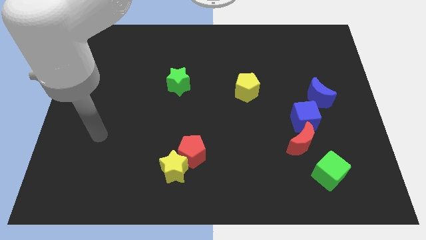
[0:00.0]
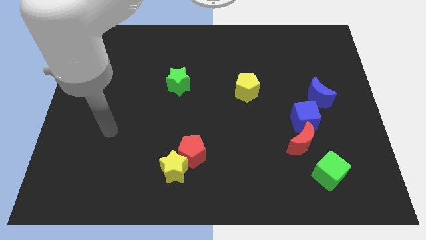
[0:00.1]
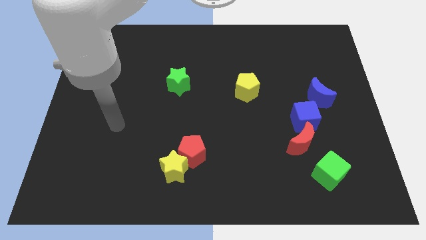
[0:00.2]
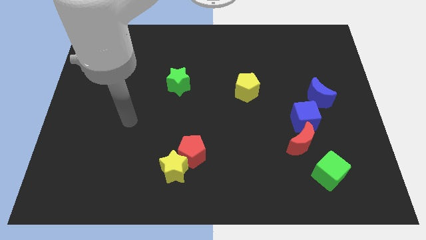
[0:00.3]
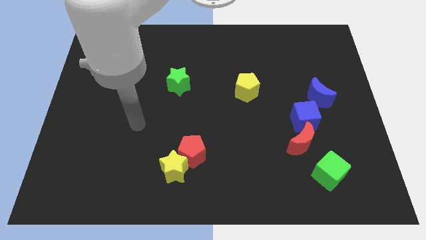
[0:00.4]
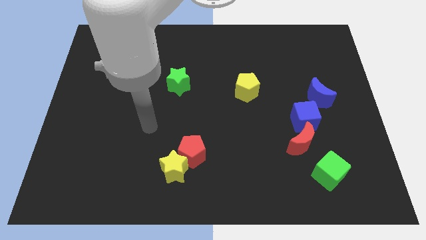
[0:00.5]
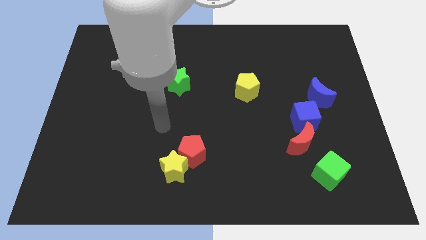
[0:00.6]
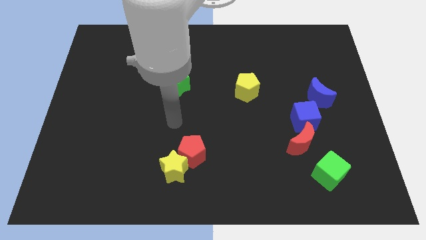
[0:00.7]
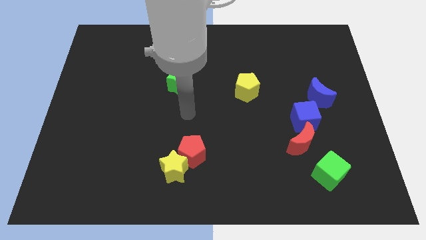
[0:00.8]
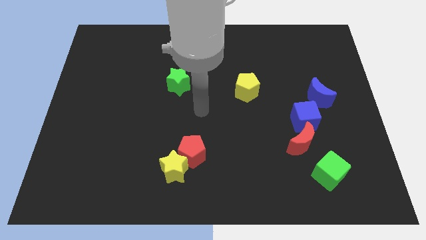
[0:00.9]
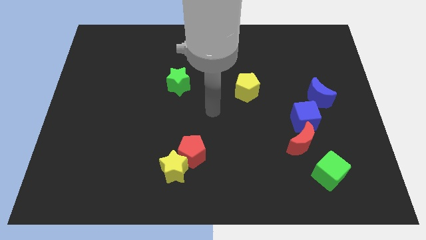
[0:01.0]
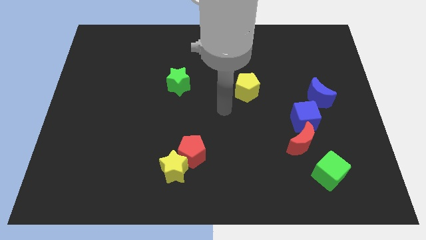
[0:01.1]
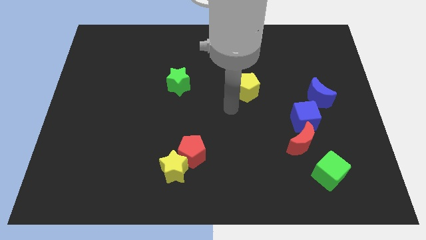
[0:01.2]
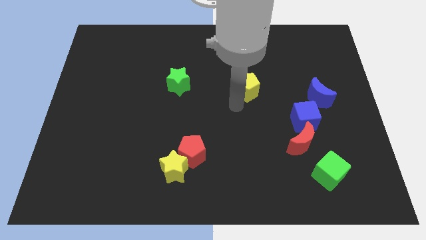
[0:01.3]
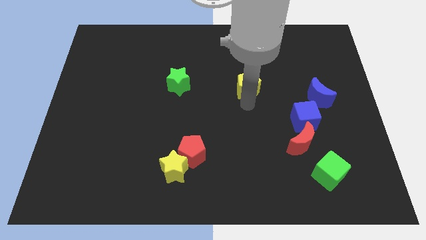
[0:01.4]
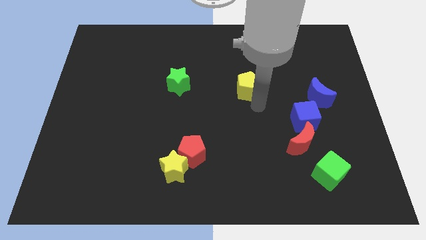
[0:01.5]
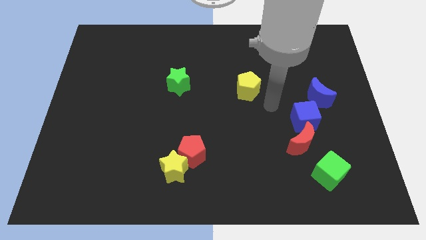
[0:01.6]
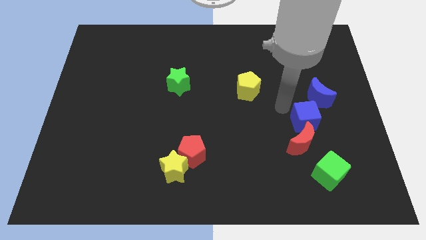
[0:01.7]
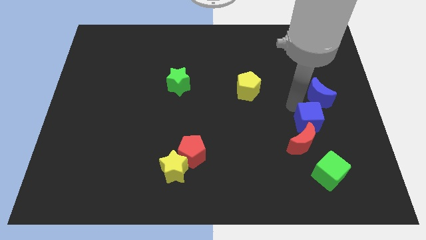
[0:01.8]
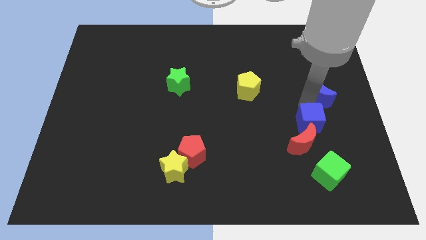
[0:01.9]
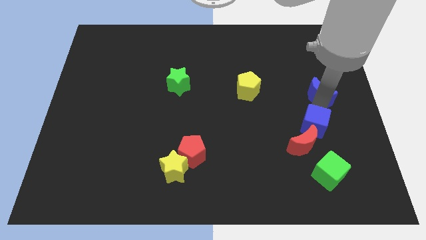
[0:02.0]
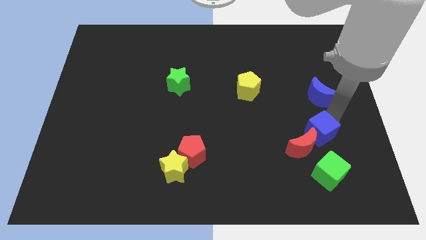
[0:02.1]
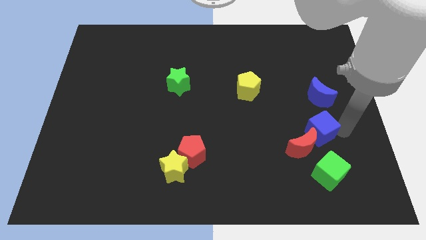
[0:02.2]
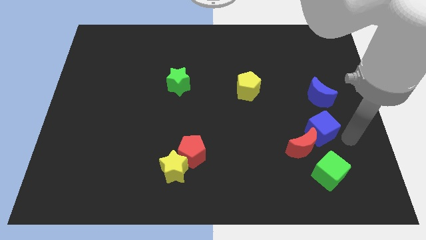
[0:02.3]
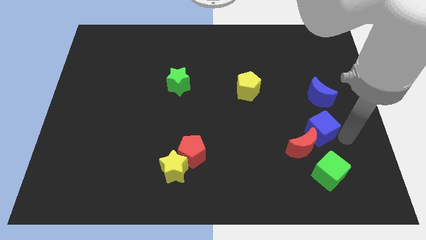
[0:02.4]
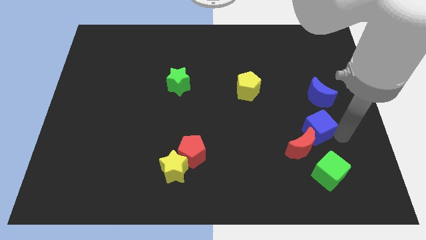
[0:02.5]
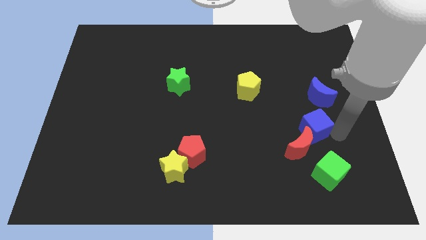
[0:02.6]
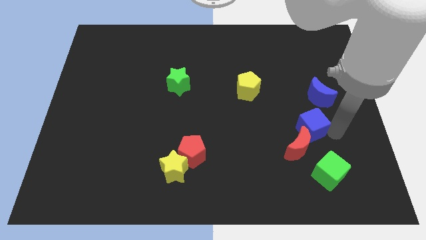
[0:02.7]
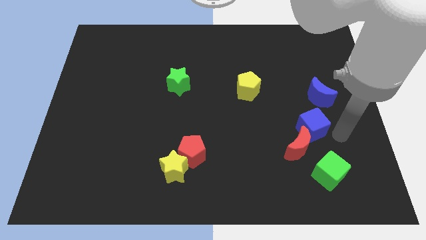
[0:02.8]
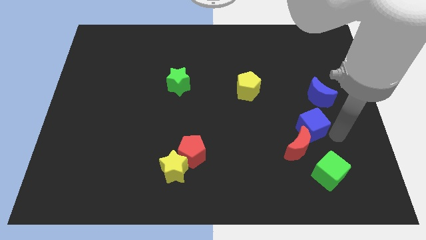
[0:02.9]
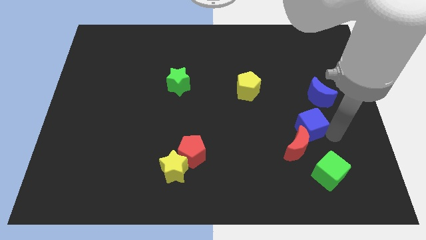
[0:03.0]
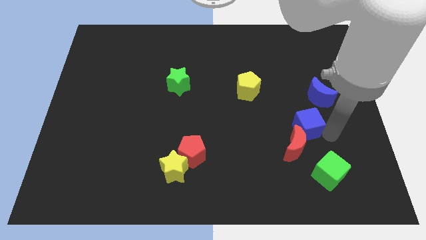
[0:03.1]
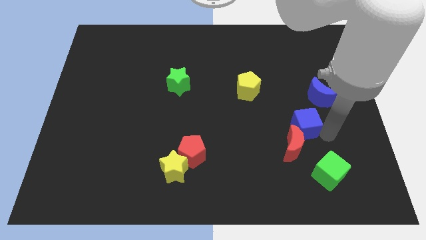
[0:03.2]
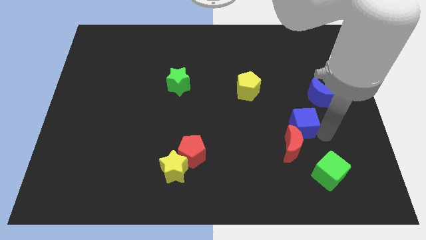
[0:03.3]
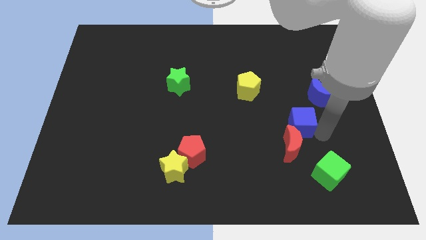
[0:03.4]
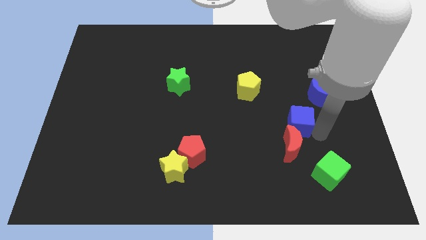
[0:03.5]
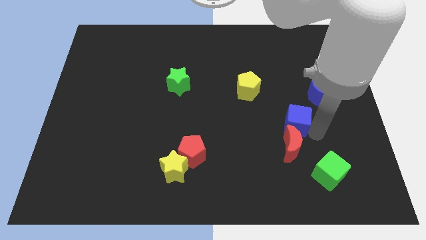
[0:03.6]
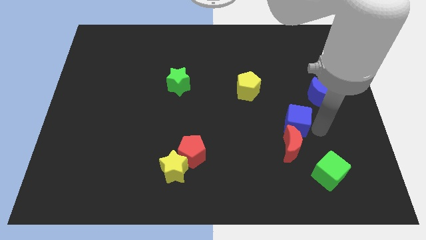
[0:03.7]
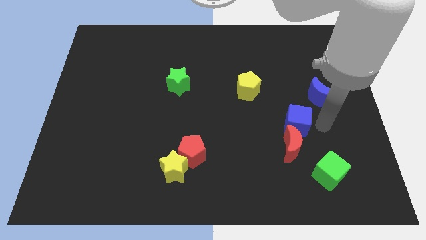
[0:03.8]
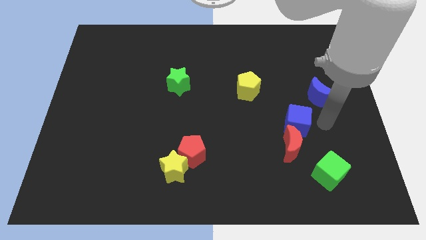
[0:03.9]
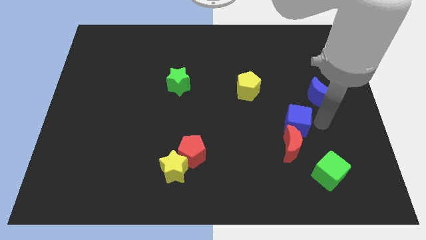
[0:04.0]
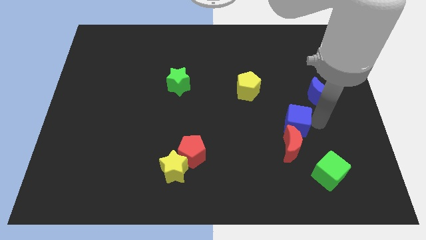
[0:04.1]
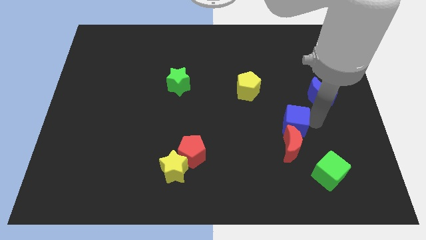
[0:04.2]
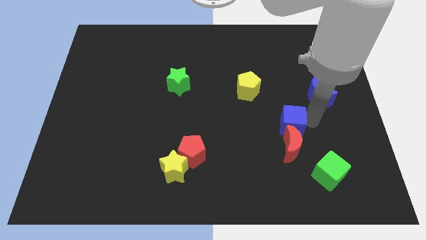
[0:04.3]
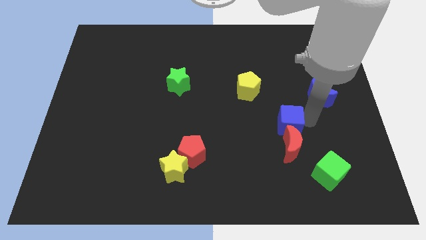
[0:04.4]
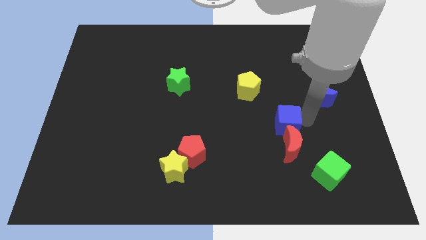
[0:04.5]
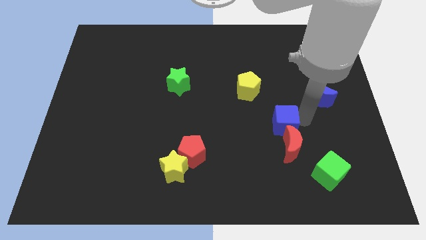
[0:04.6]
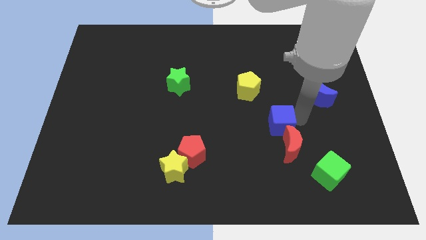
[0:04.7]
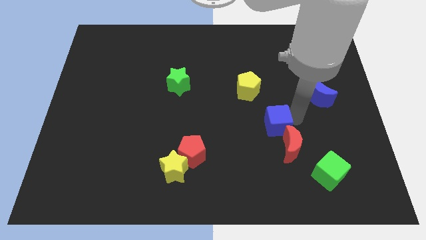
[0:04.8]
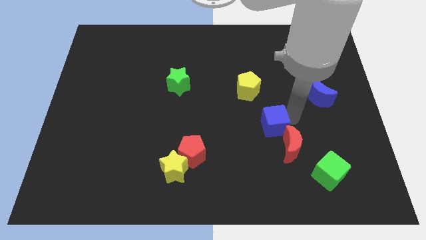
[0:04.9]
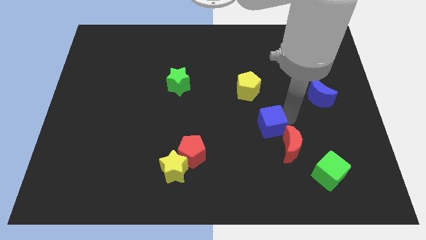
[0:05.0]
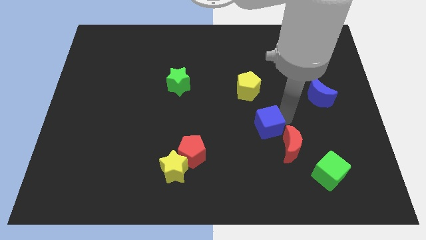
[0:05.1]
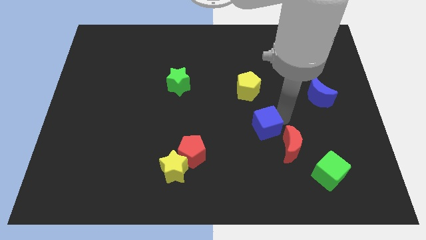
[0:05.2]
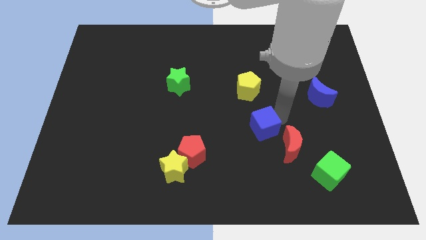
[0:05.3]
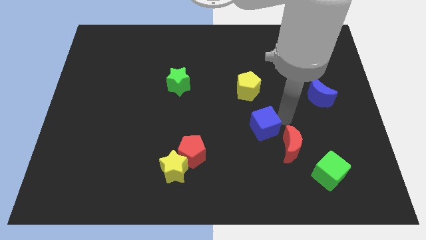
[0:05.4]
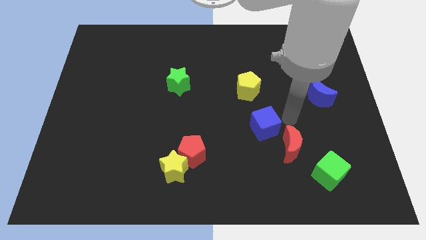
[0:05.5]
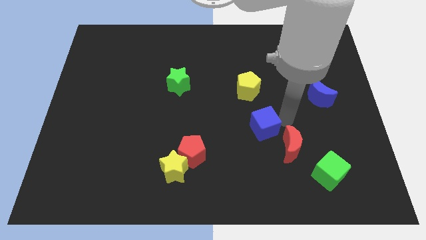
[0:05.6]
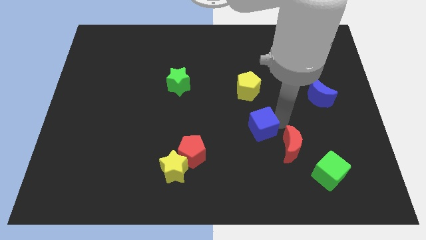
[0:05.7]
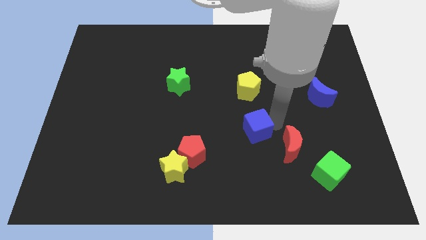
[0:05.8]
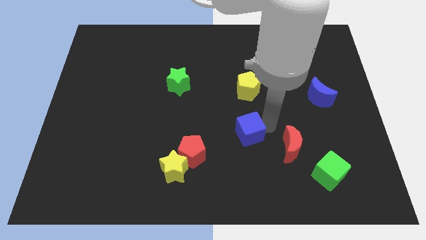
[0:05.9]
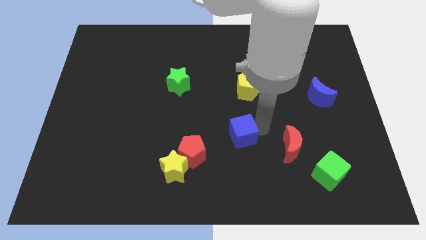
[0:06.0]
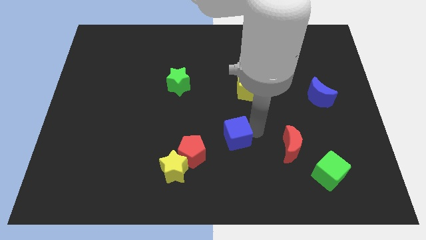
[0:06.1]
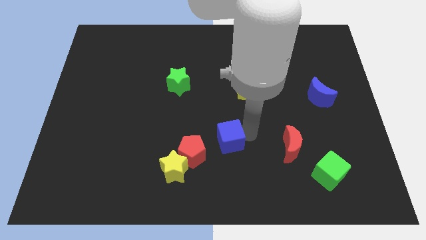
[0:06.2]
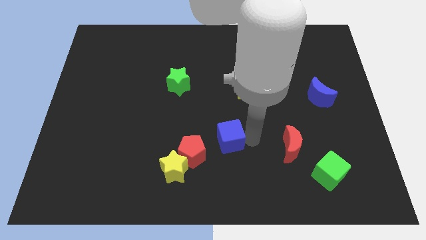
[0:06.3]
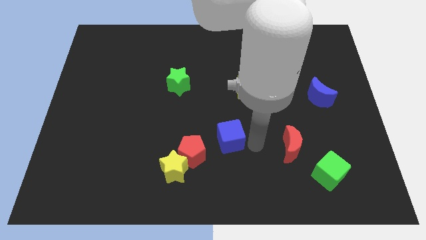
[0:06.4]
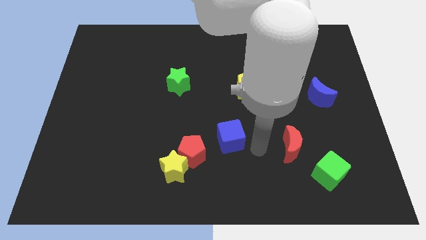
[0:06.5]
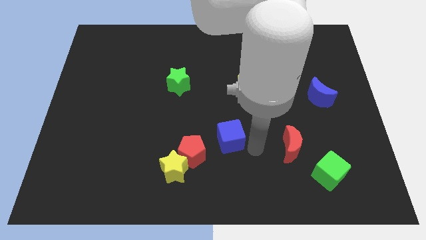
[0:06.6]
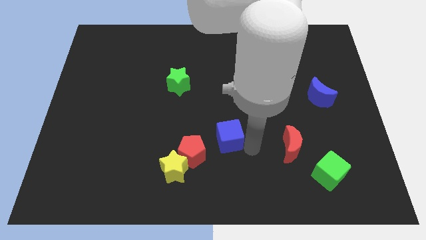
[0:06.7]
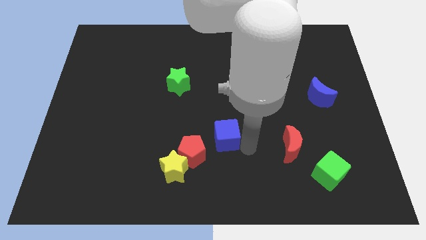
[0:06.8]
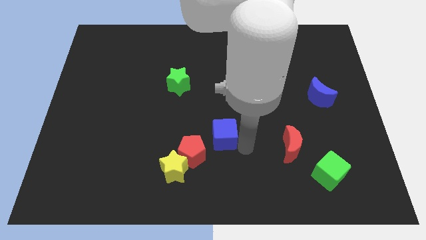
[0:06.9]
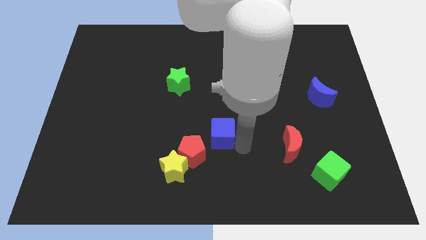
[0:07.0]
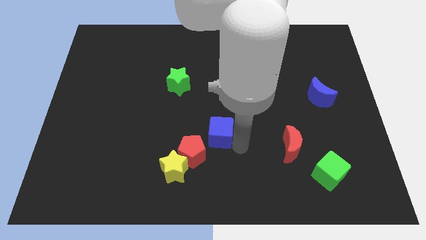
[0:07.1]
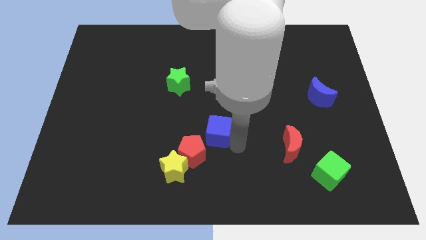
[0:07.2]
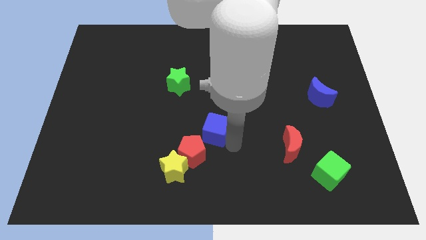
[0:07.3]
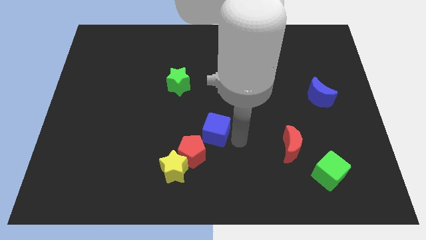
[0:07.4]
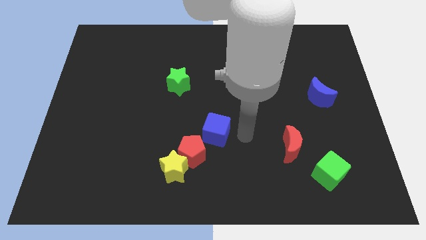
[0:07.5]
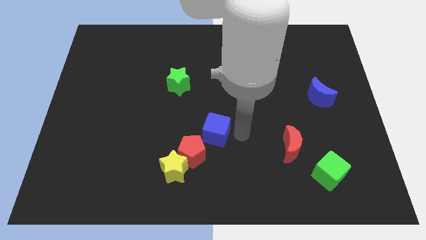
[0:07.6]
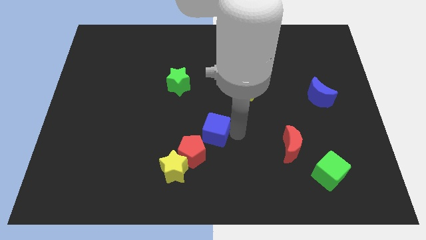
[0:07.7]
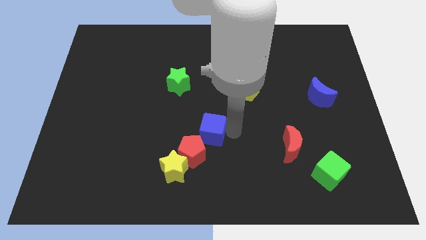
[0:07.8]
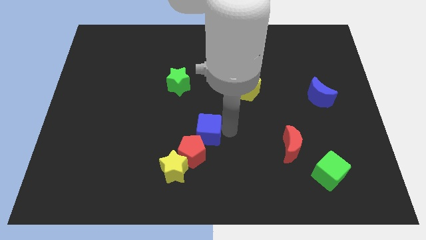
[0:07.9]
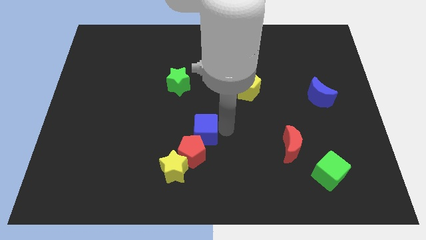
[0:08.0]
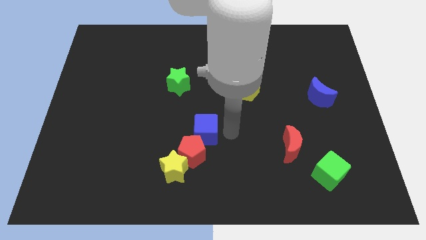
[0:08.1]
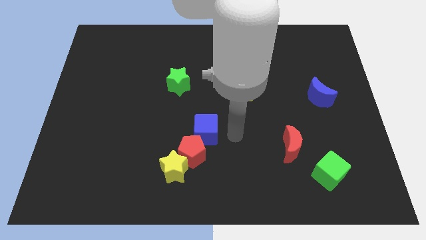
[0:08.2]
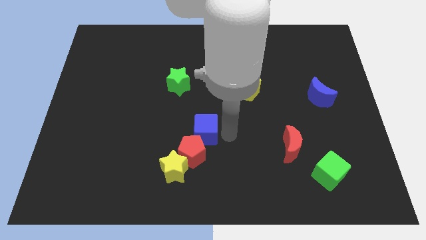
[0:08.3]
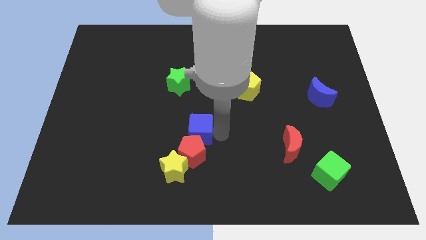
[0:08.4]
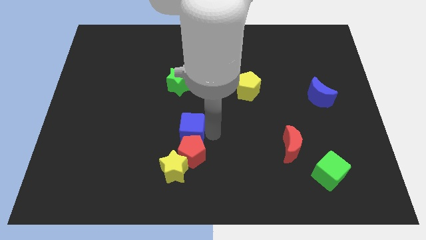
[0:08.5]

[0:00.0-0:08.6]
slide the blue cube to the top of the yellow star
